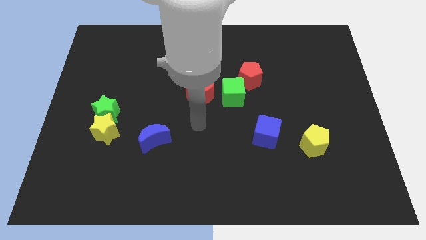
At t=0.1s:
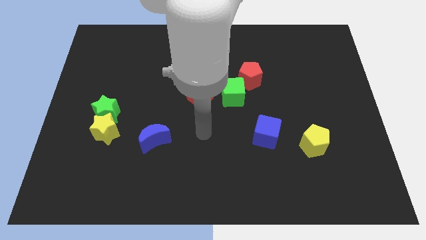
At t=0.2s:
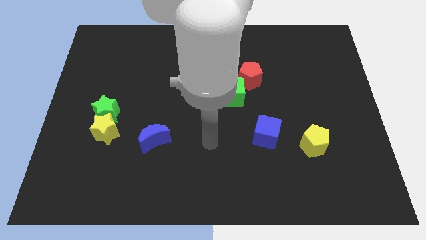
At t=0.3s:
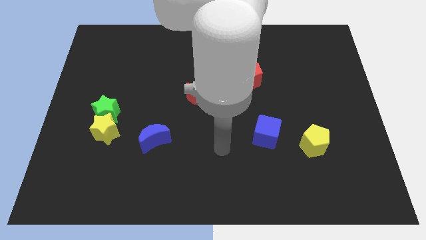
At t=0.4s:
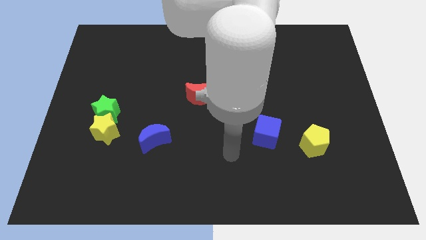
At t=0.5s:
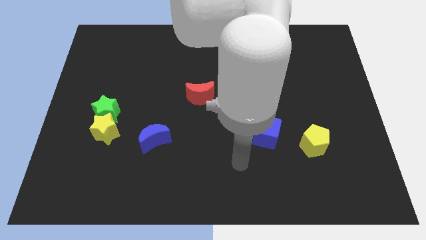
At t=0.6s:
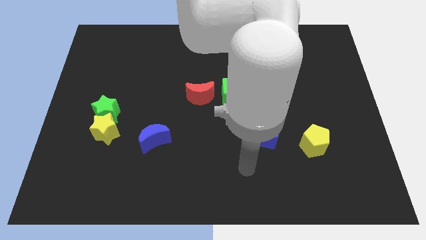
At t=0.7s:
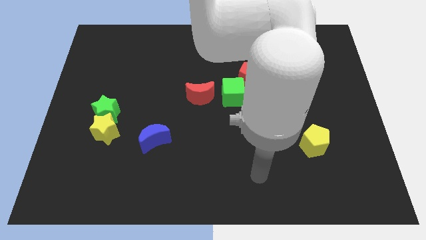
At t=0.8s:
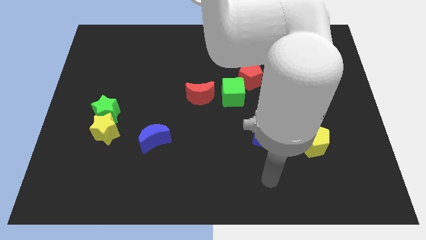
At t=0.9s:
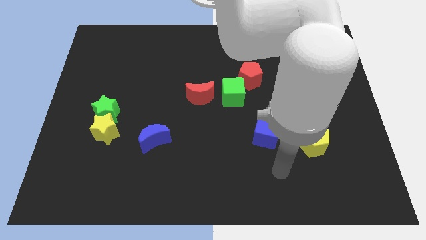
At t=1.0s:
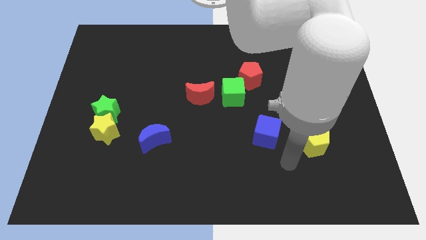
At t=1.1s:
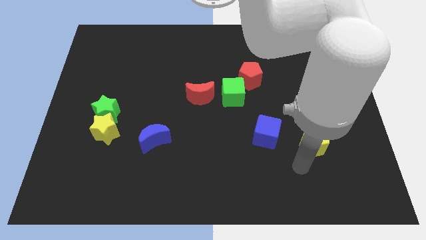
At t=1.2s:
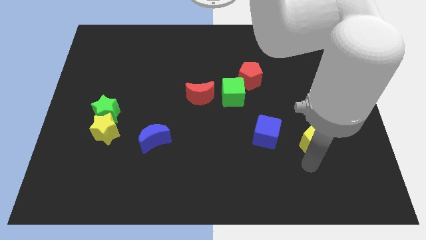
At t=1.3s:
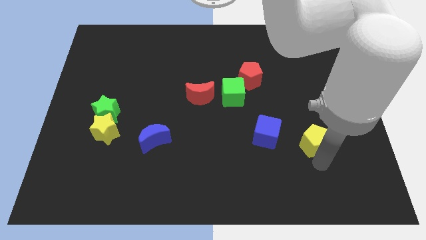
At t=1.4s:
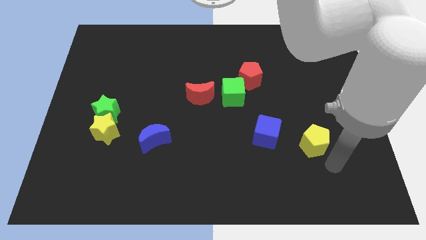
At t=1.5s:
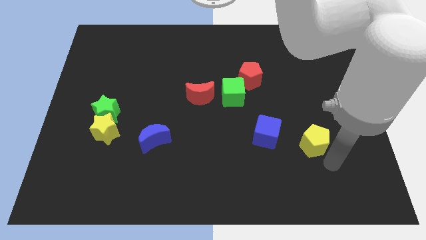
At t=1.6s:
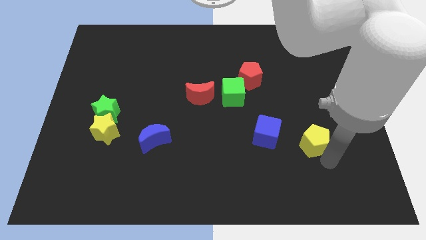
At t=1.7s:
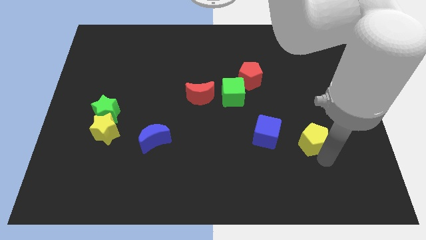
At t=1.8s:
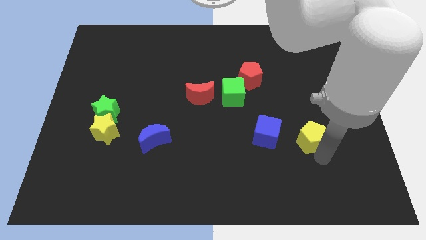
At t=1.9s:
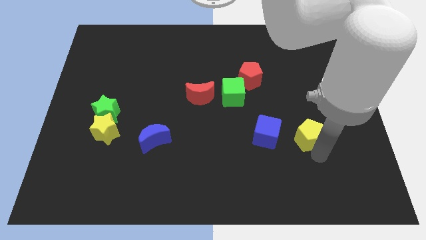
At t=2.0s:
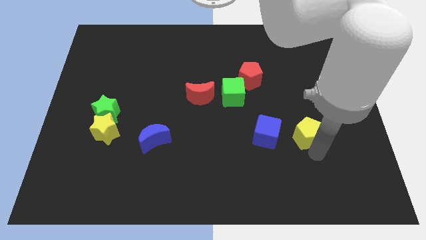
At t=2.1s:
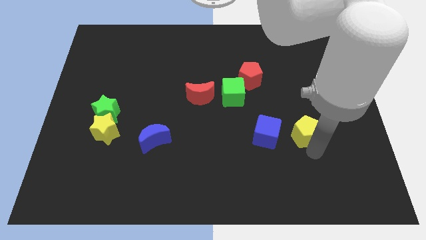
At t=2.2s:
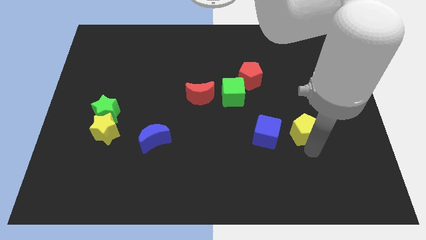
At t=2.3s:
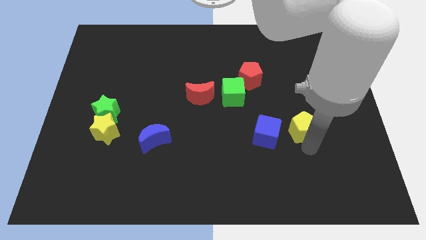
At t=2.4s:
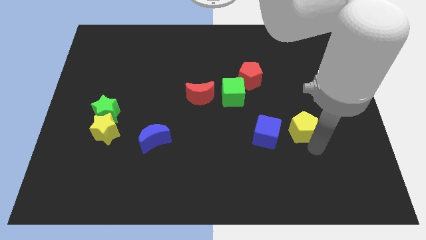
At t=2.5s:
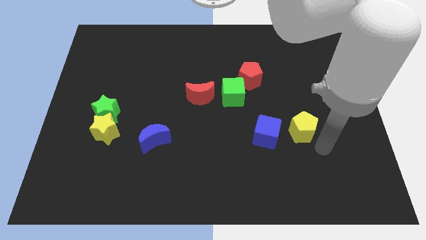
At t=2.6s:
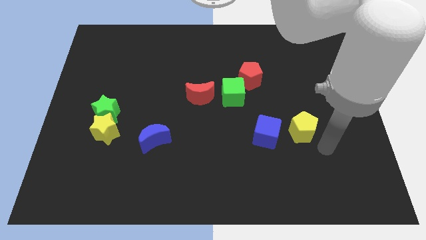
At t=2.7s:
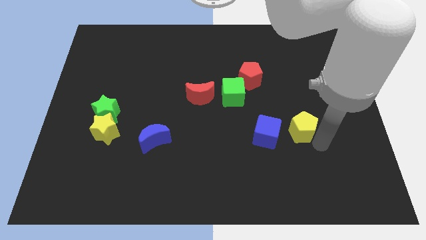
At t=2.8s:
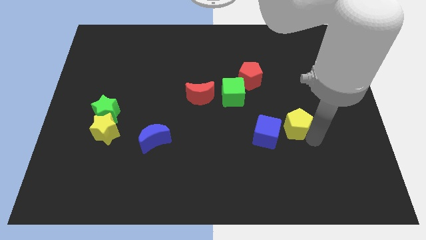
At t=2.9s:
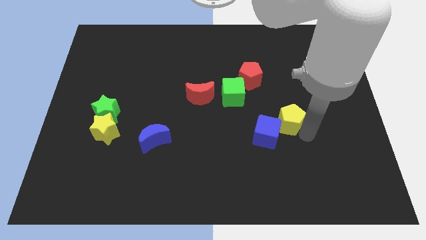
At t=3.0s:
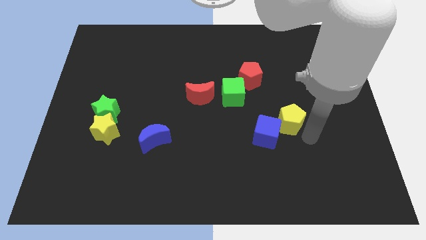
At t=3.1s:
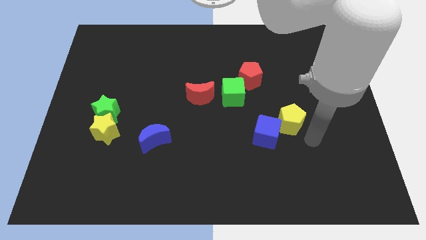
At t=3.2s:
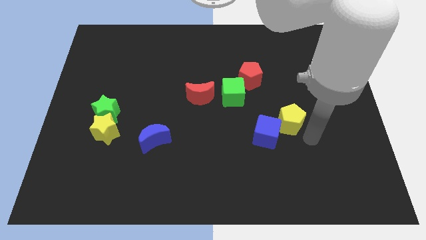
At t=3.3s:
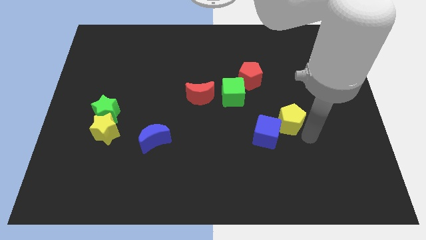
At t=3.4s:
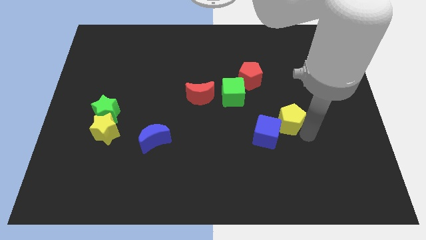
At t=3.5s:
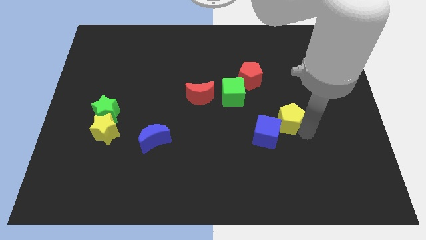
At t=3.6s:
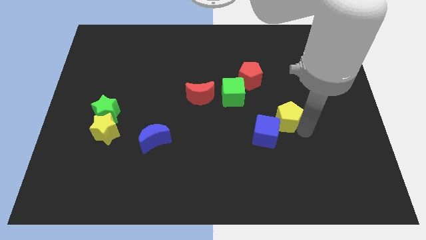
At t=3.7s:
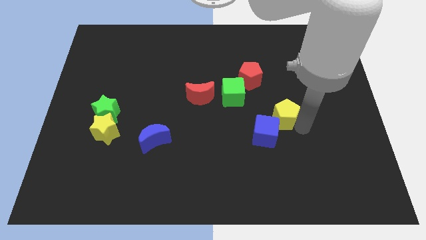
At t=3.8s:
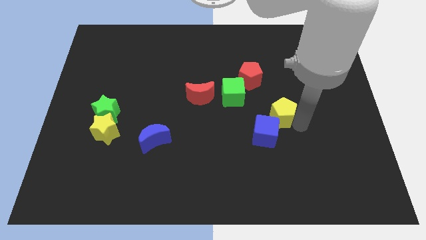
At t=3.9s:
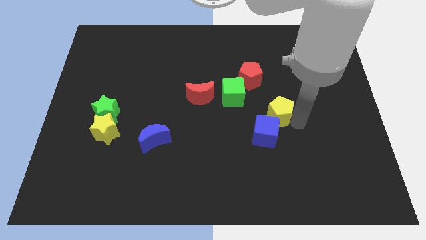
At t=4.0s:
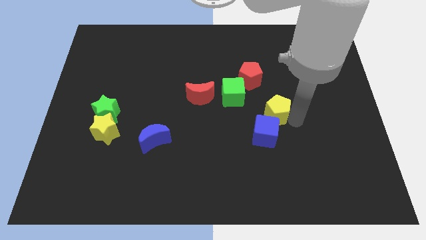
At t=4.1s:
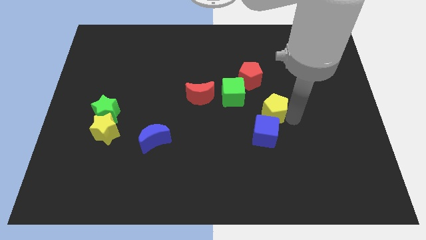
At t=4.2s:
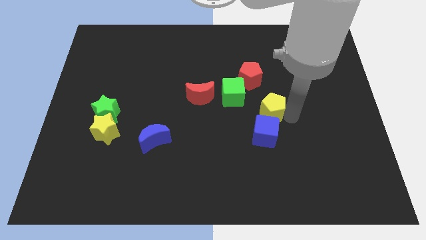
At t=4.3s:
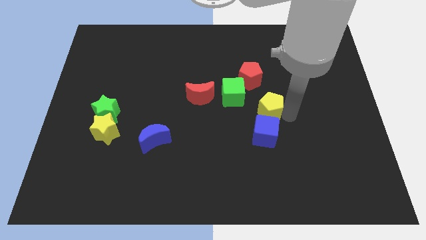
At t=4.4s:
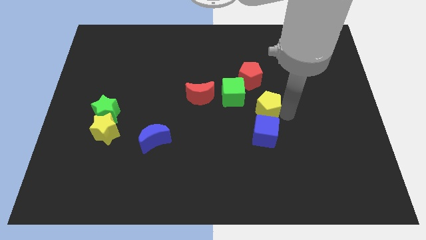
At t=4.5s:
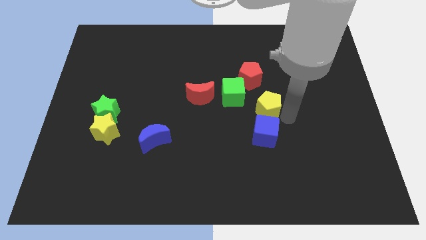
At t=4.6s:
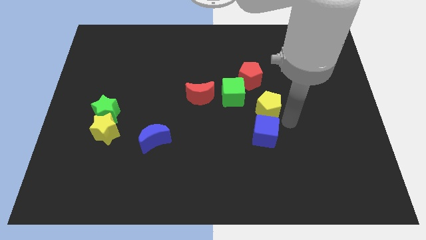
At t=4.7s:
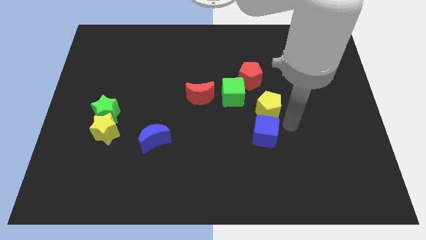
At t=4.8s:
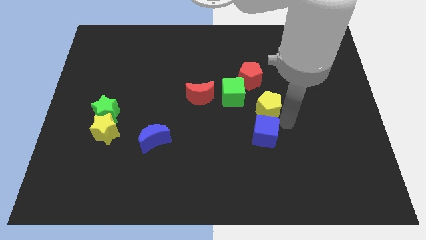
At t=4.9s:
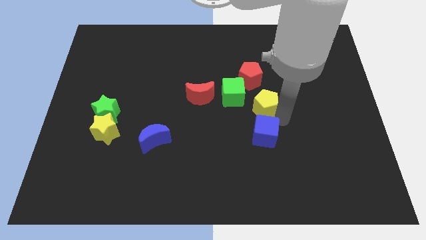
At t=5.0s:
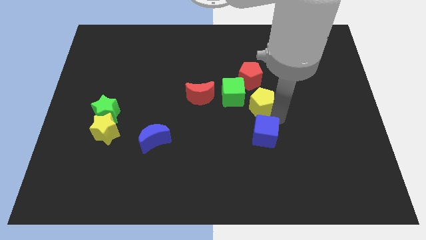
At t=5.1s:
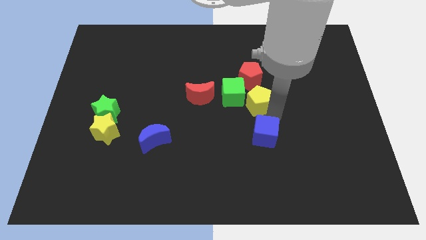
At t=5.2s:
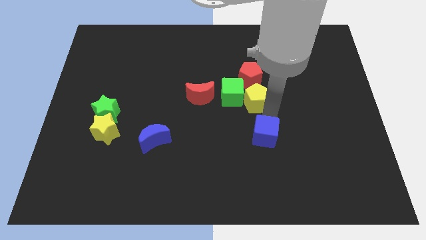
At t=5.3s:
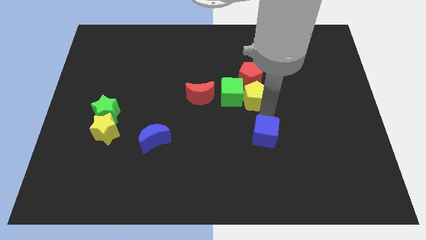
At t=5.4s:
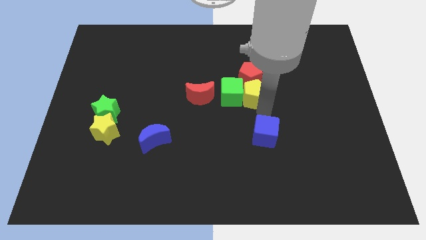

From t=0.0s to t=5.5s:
put the yellow pentagon towards the red pentagon

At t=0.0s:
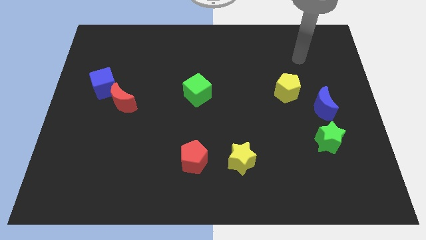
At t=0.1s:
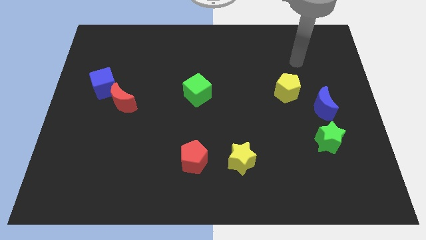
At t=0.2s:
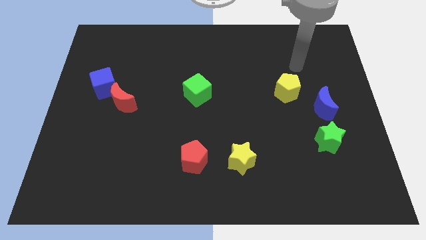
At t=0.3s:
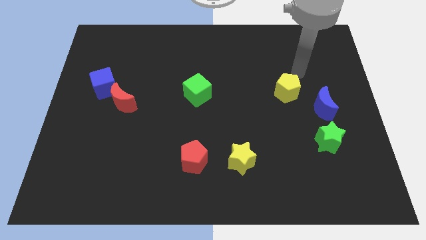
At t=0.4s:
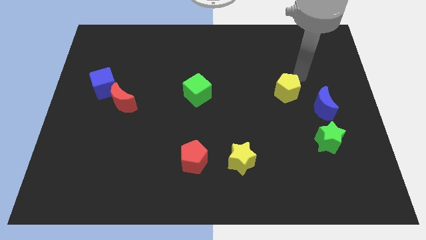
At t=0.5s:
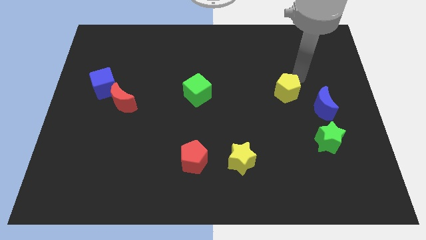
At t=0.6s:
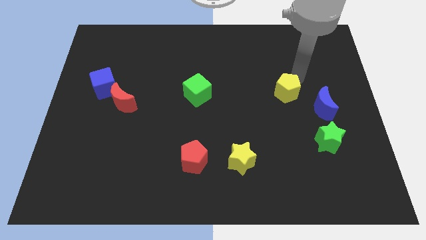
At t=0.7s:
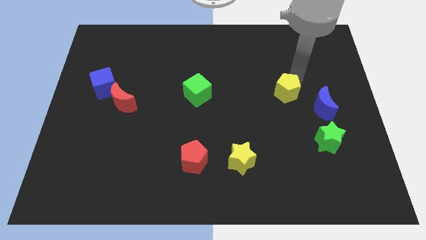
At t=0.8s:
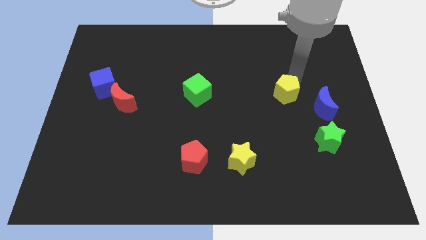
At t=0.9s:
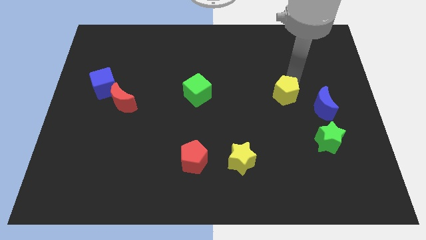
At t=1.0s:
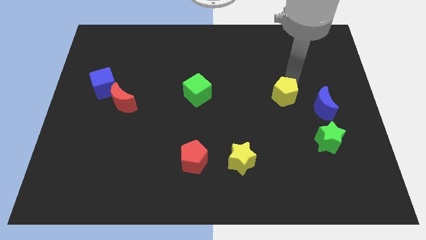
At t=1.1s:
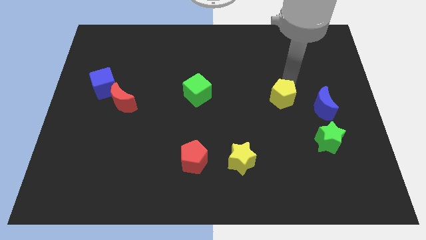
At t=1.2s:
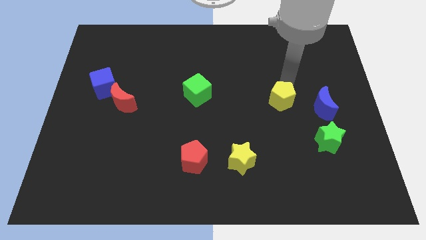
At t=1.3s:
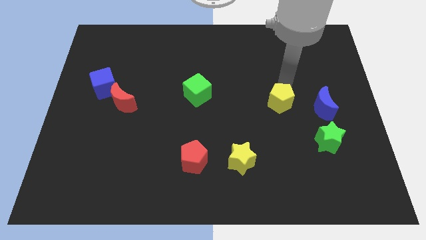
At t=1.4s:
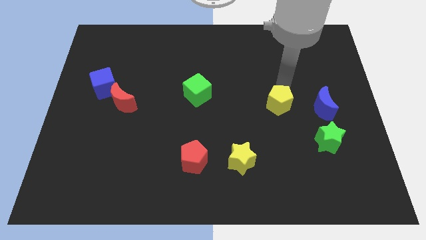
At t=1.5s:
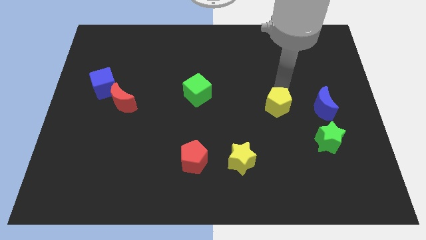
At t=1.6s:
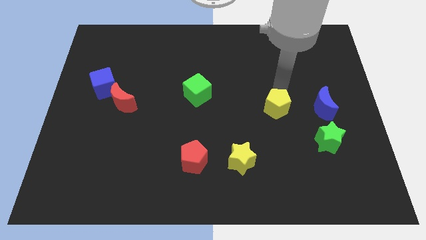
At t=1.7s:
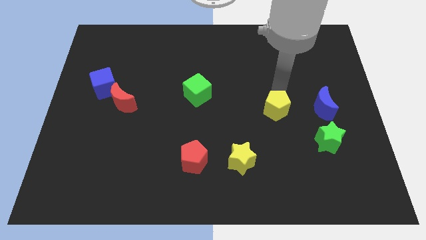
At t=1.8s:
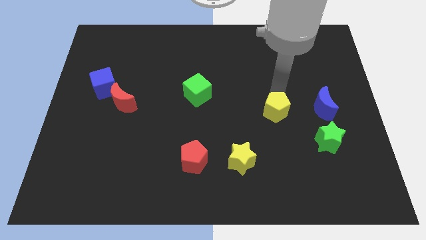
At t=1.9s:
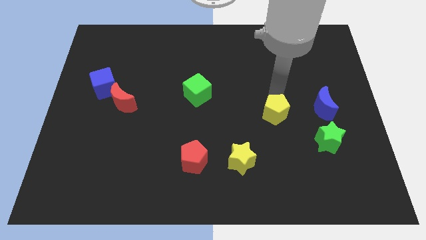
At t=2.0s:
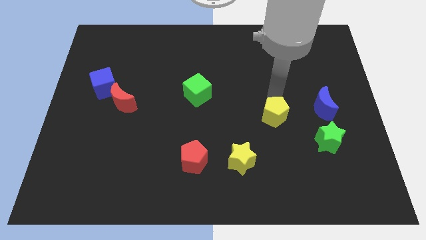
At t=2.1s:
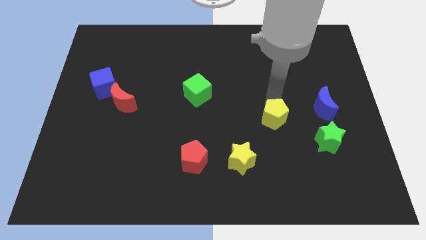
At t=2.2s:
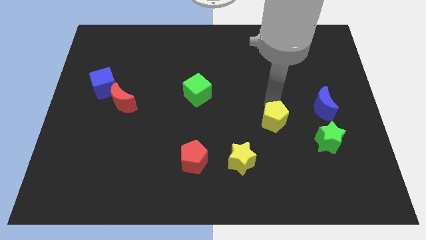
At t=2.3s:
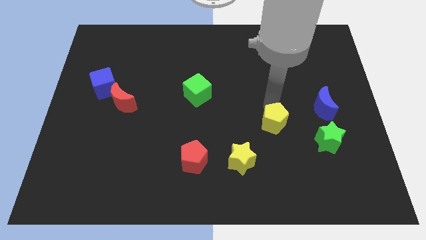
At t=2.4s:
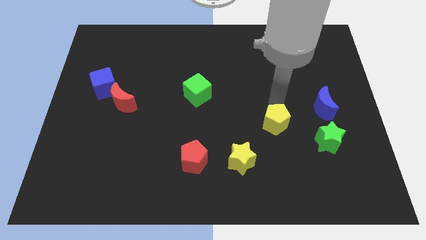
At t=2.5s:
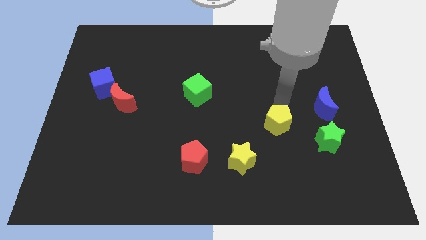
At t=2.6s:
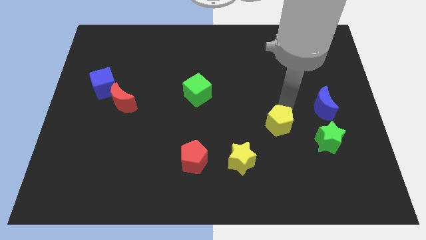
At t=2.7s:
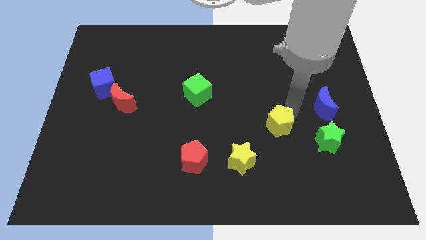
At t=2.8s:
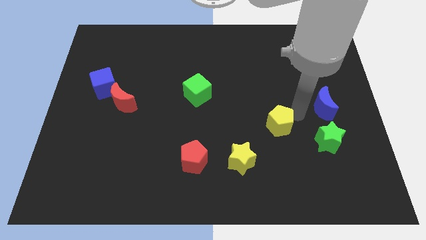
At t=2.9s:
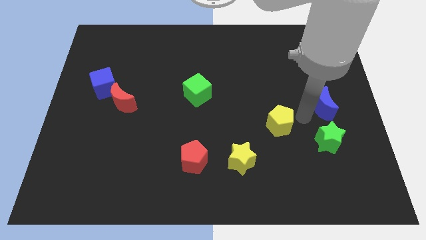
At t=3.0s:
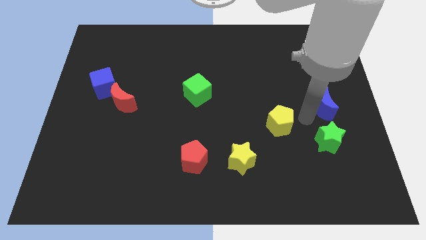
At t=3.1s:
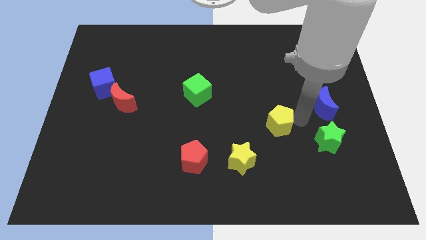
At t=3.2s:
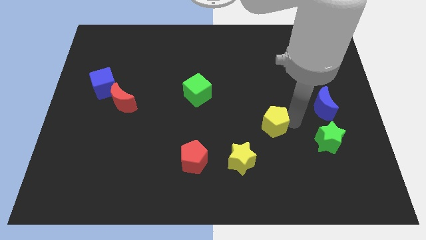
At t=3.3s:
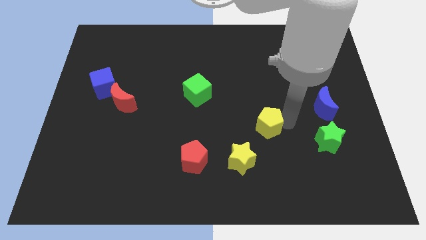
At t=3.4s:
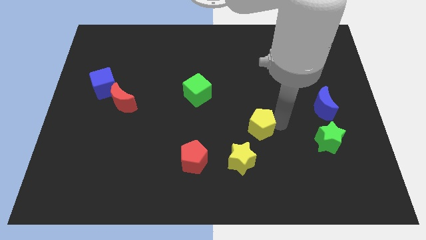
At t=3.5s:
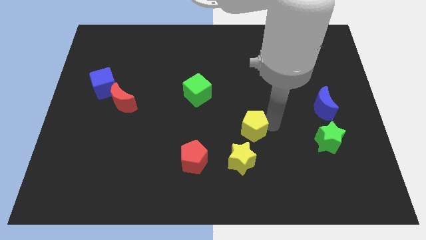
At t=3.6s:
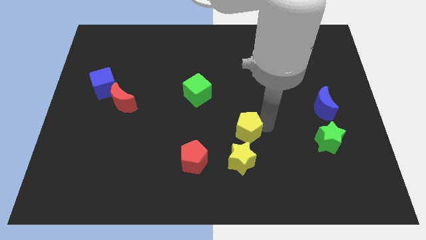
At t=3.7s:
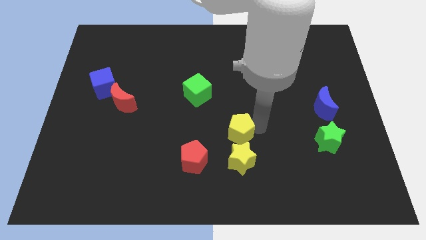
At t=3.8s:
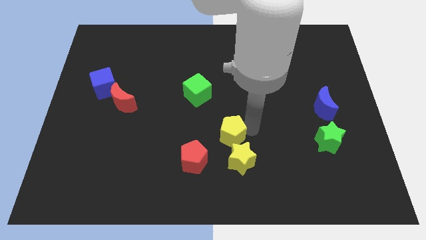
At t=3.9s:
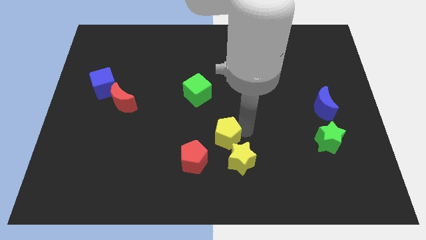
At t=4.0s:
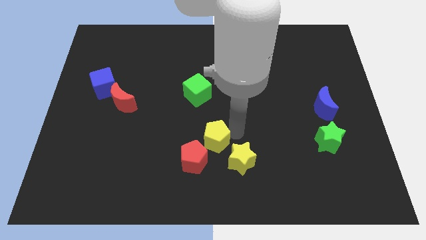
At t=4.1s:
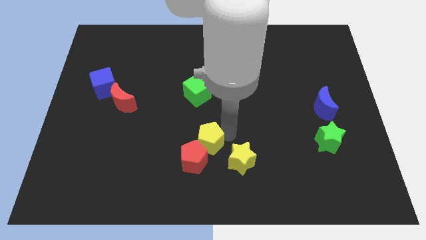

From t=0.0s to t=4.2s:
put the yellow pentagon to the red pentagon
